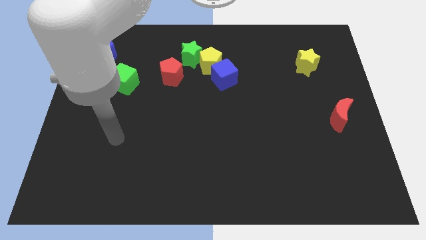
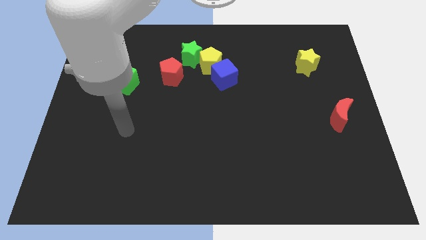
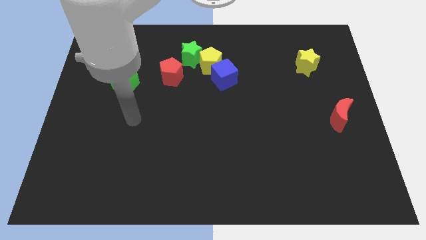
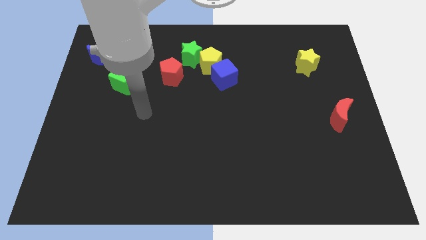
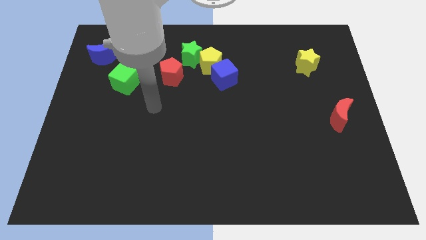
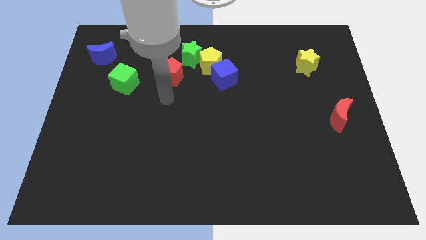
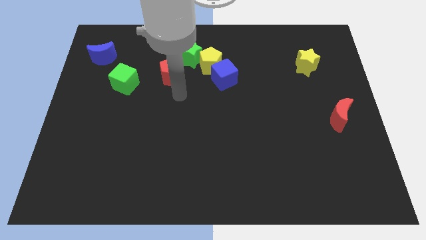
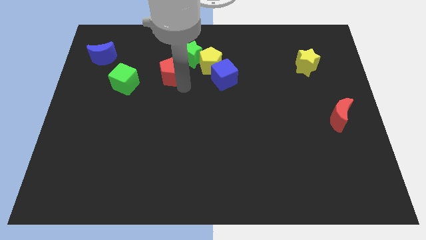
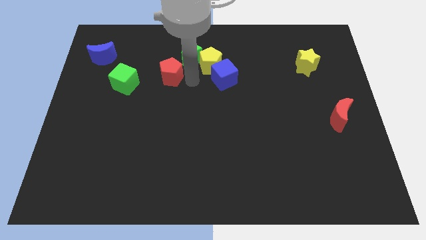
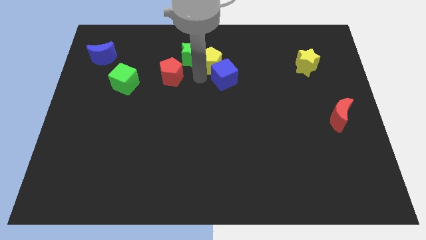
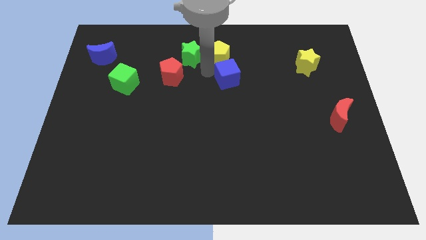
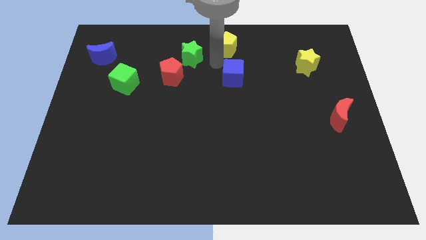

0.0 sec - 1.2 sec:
pull the blue cube apart from the yellow pentagon

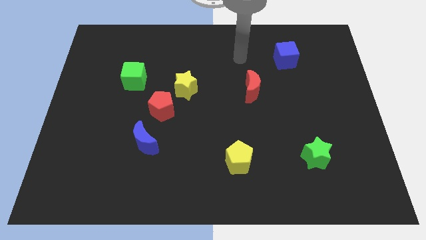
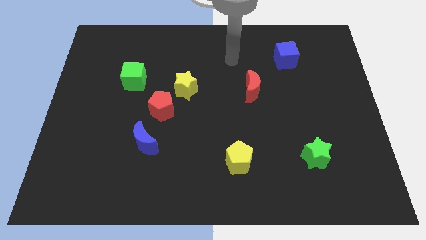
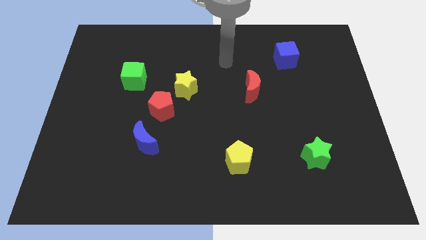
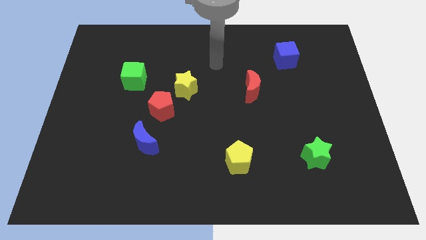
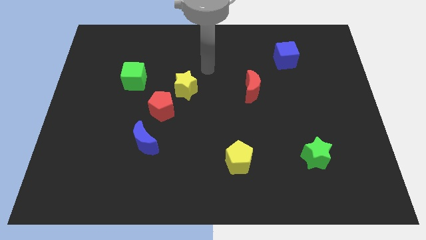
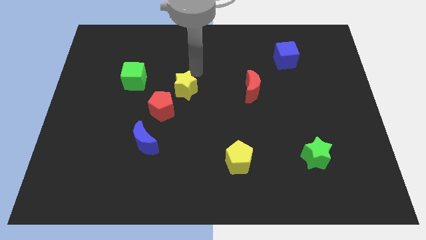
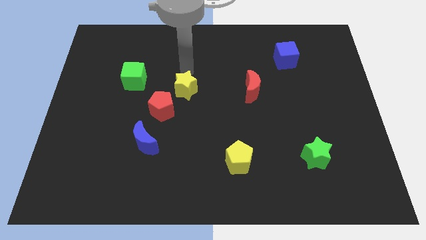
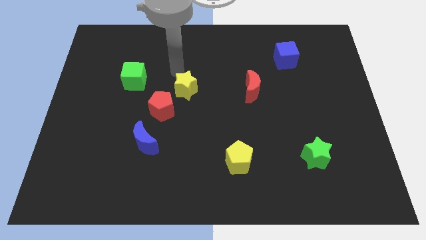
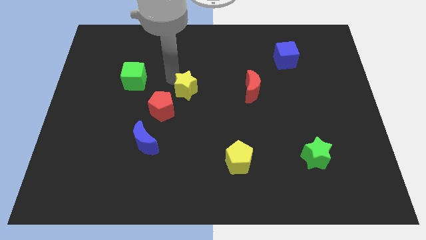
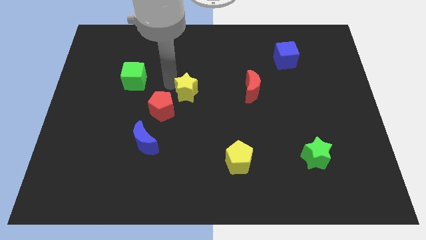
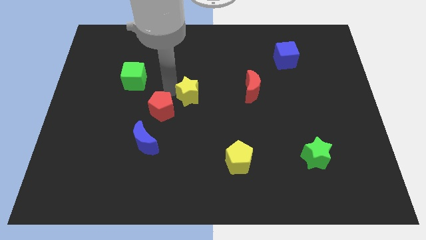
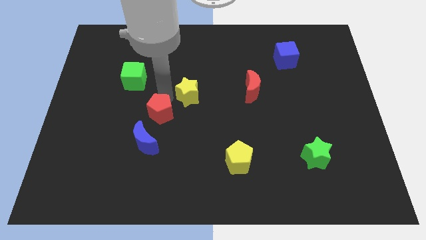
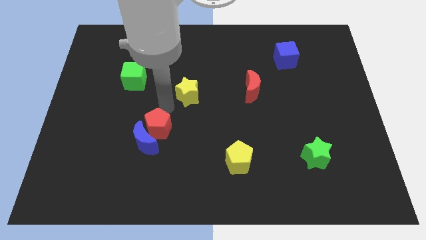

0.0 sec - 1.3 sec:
separate the yellow star from the red pentagon

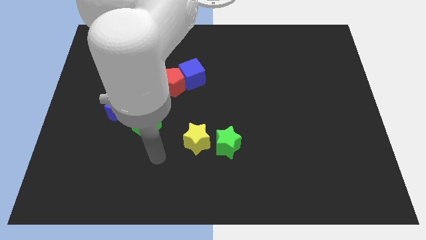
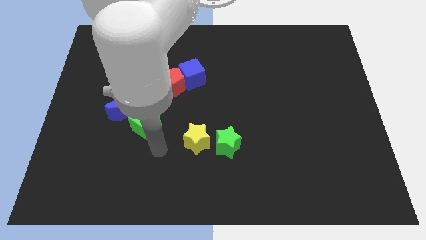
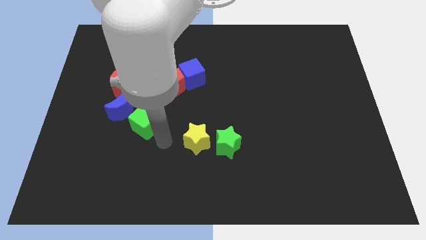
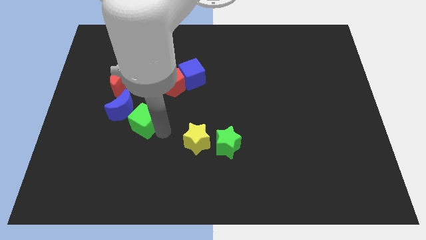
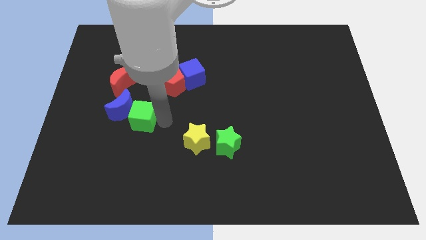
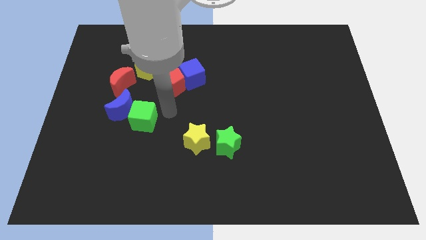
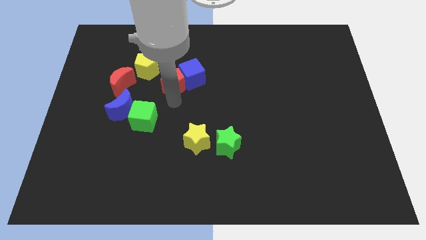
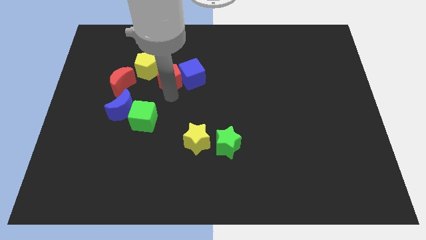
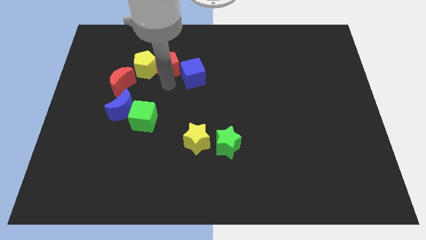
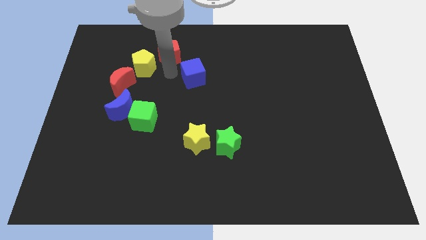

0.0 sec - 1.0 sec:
move the blue cube away from the red pentagon

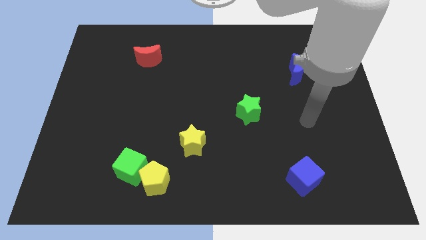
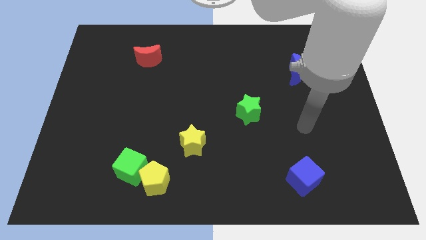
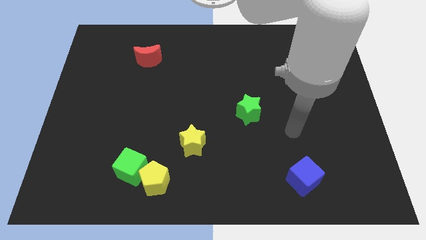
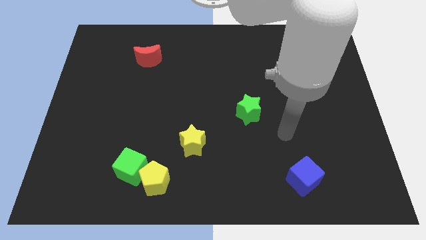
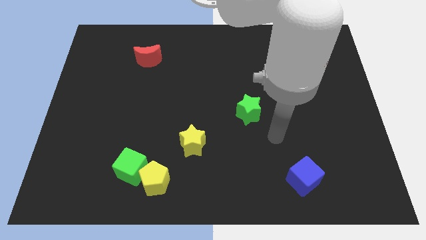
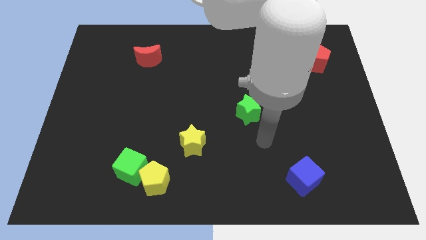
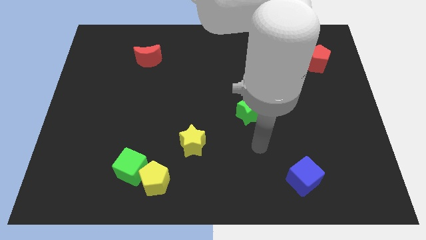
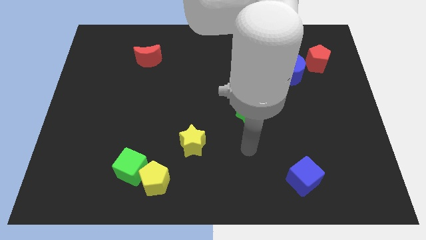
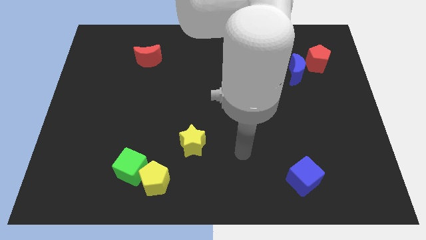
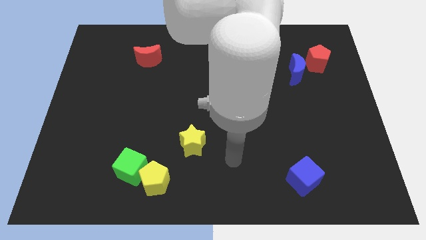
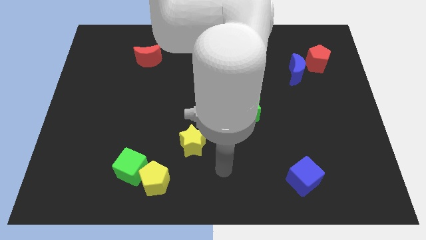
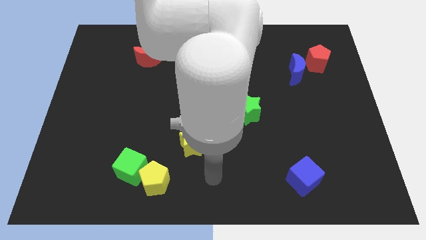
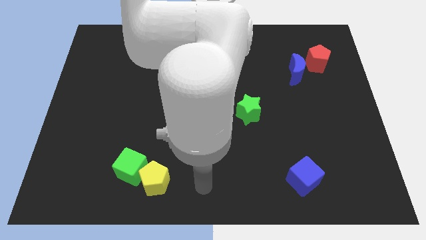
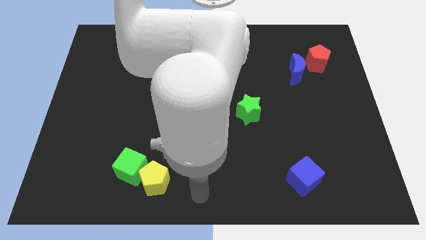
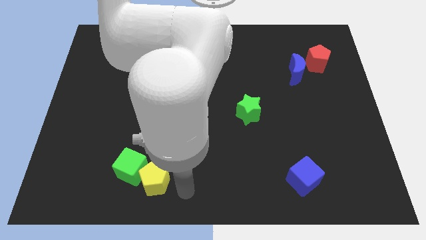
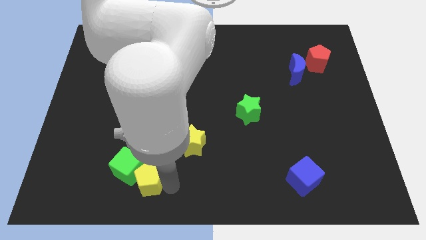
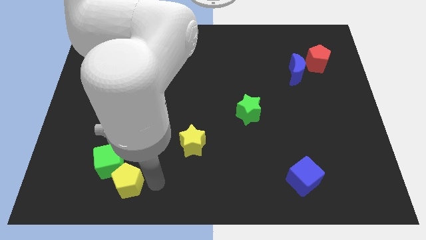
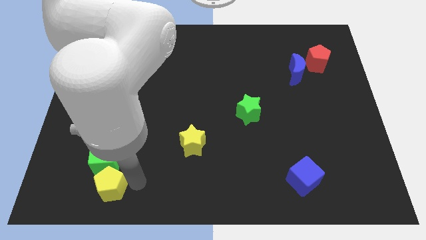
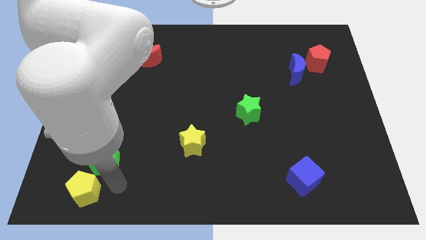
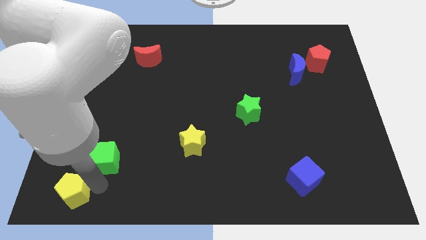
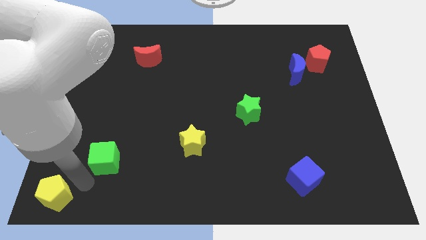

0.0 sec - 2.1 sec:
separate the green cube from the yellow pentagon

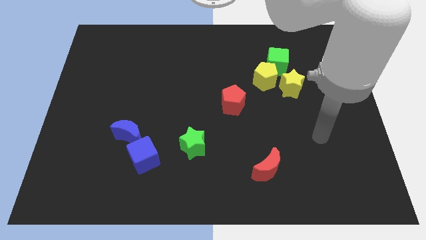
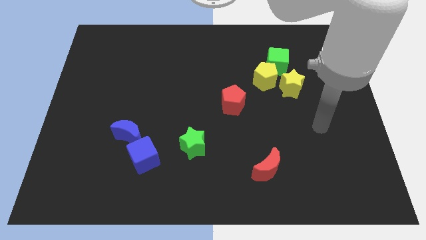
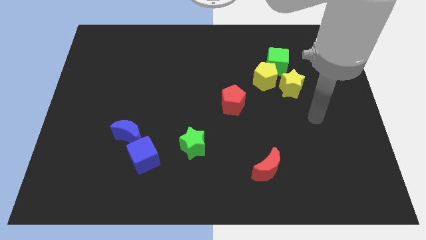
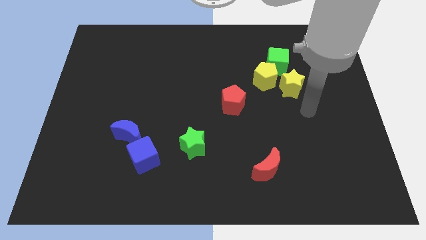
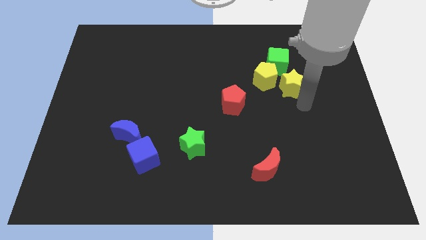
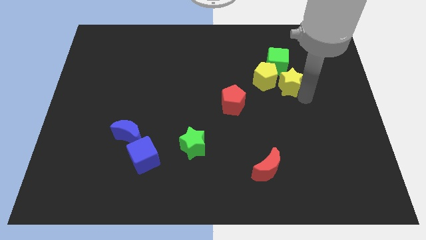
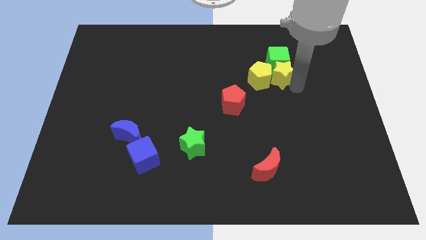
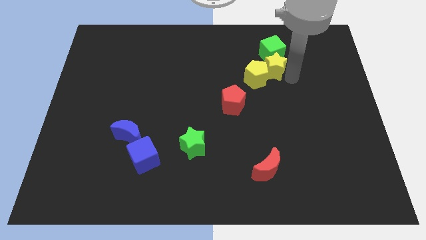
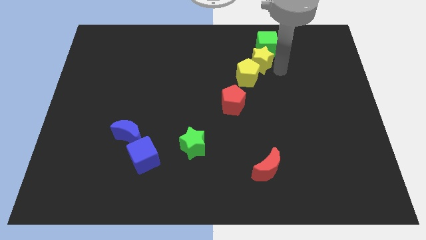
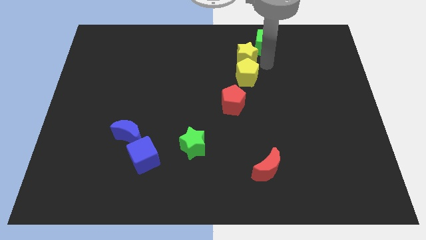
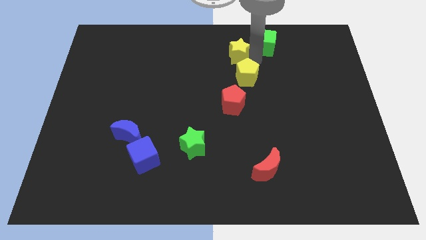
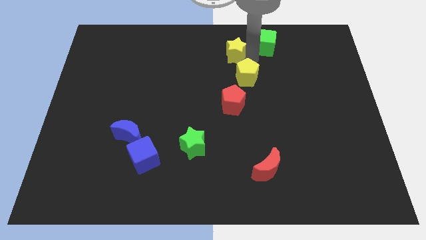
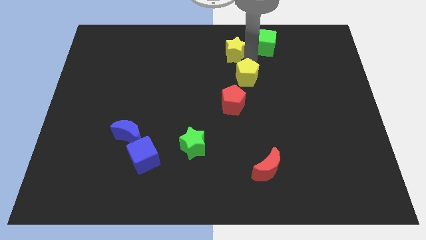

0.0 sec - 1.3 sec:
pull the yellow pentagon apart from the green cube and yellow star

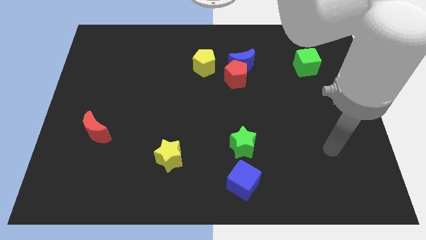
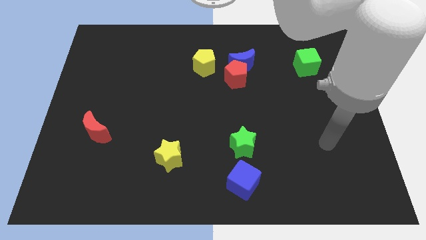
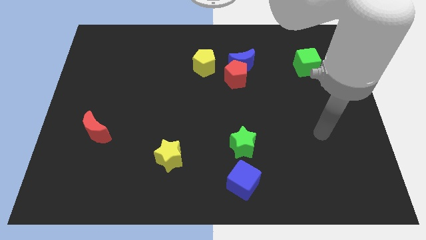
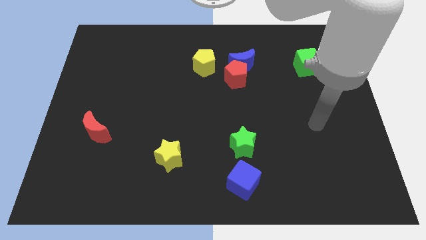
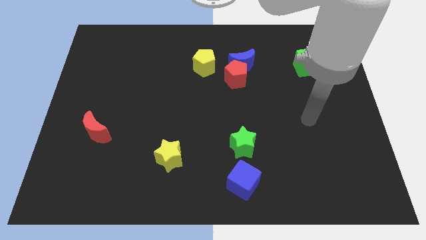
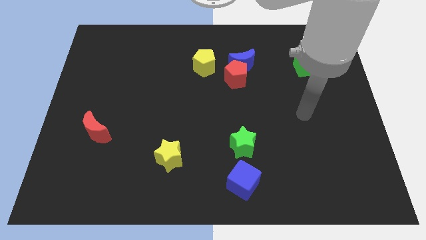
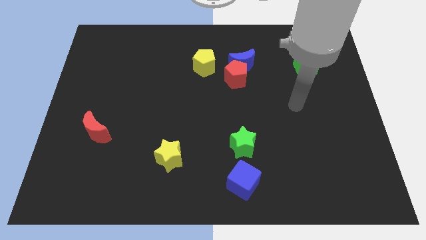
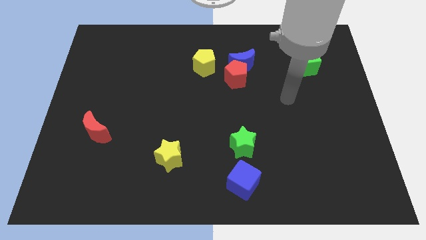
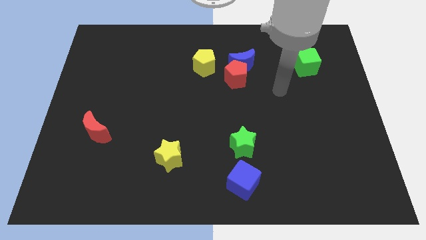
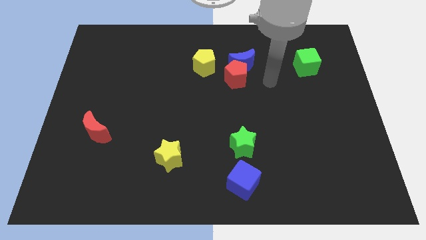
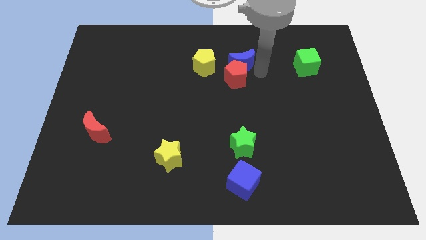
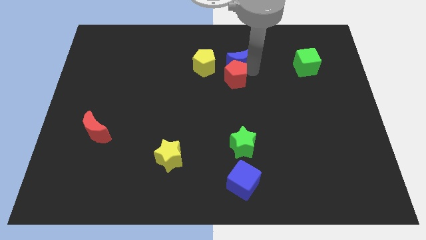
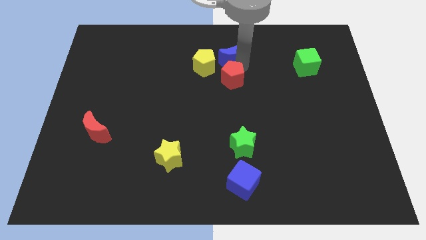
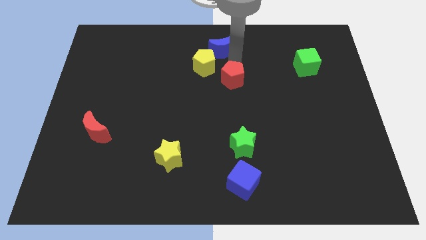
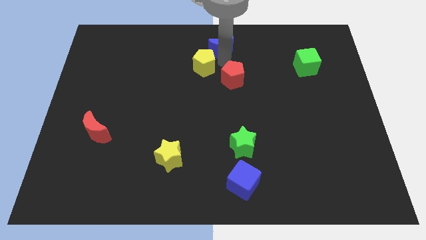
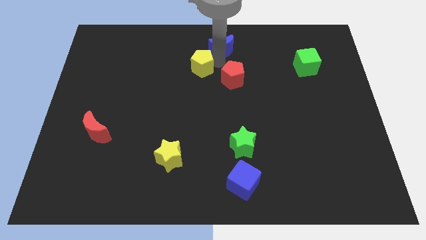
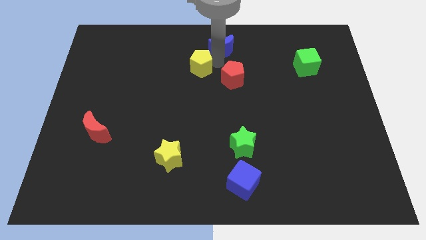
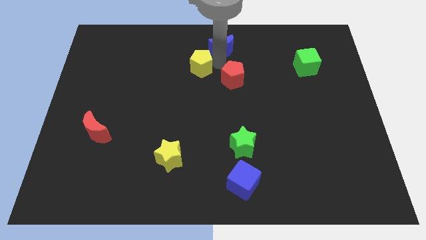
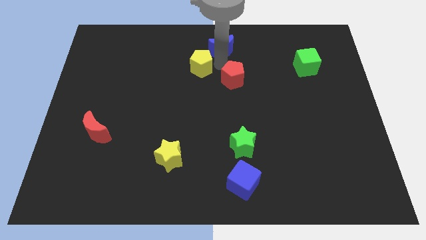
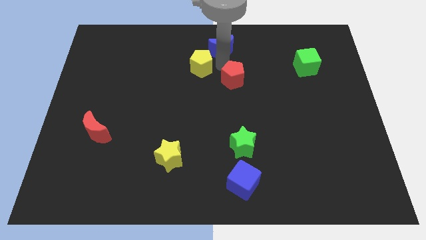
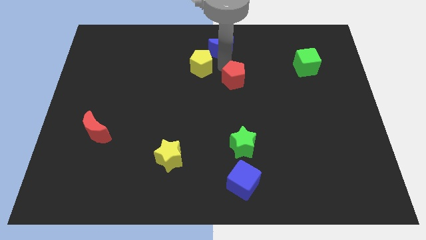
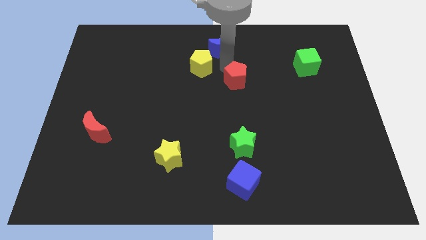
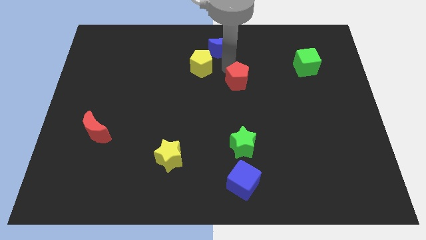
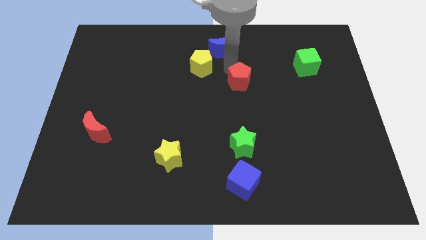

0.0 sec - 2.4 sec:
pull the red pentagon apart from the blue moon and yellow pentagon

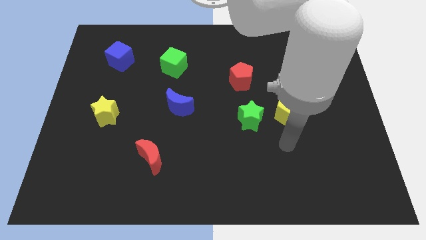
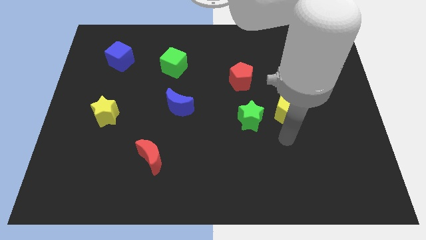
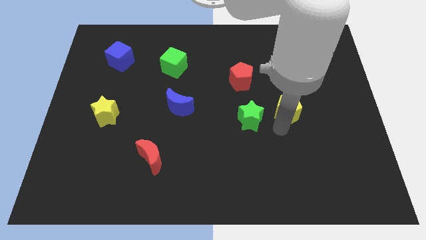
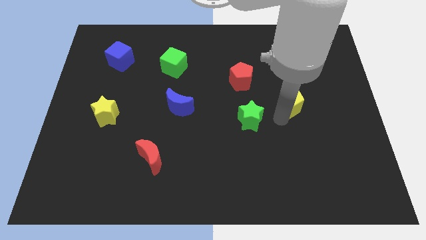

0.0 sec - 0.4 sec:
pull the green star apart from the yellow pentagon
